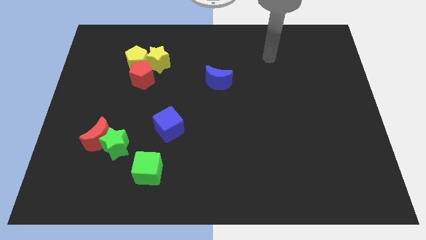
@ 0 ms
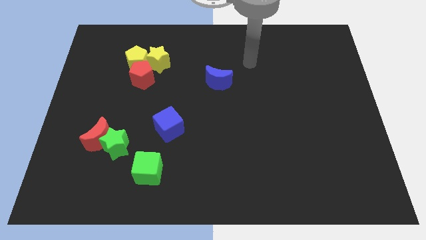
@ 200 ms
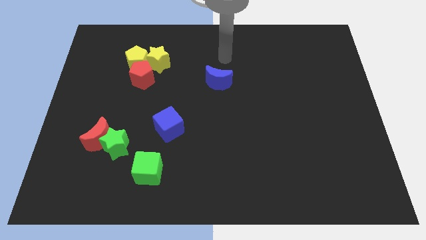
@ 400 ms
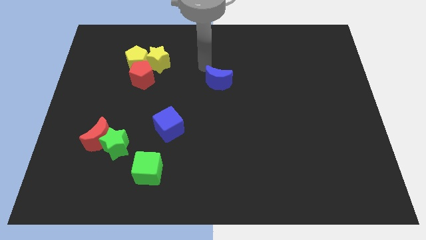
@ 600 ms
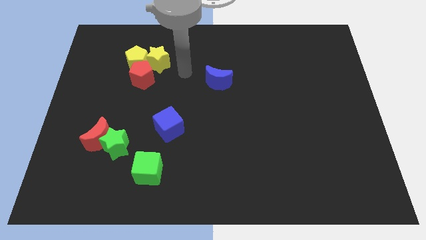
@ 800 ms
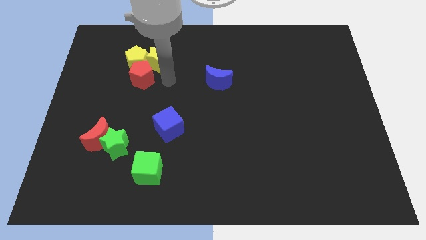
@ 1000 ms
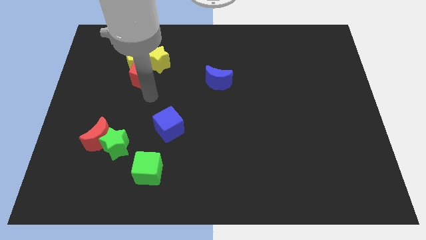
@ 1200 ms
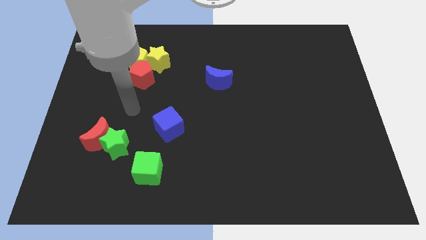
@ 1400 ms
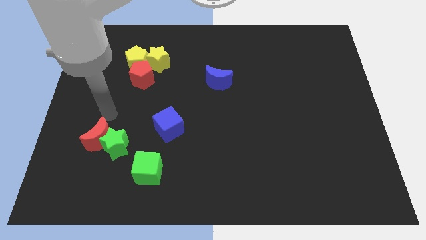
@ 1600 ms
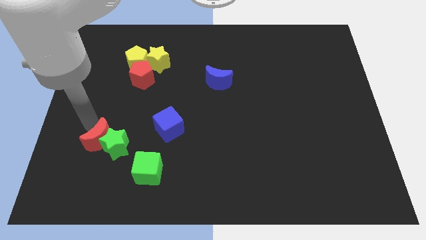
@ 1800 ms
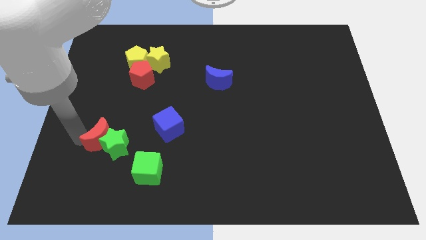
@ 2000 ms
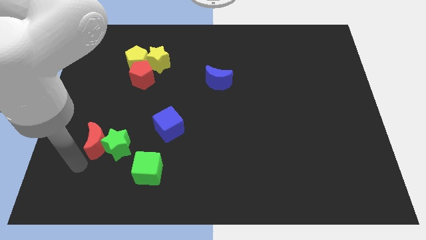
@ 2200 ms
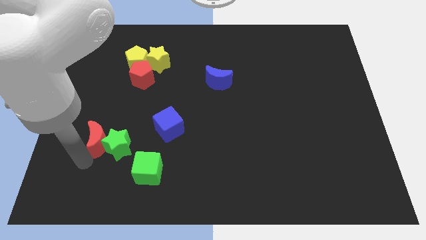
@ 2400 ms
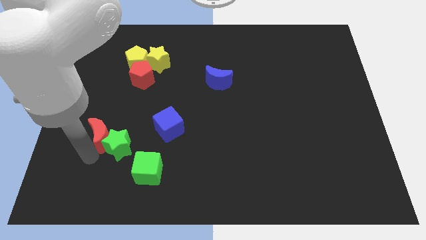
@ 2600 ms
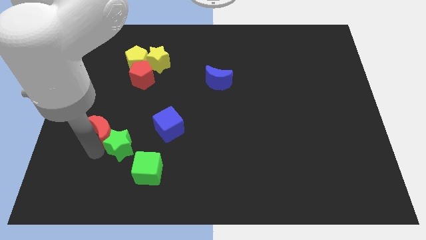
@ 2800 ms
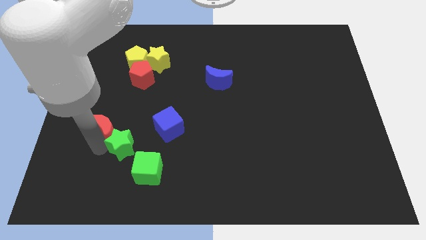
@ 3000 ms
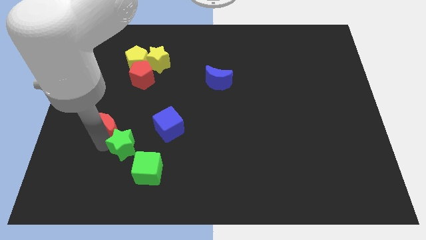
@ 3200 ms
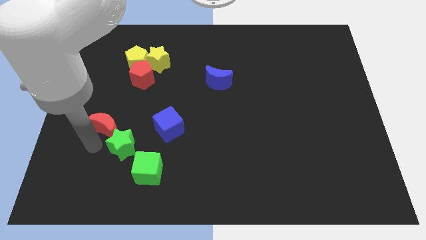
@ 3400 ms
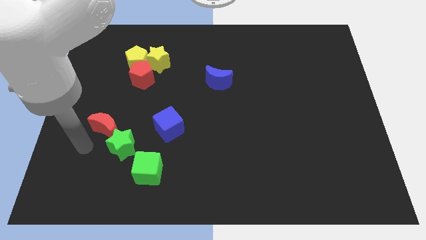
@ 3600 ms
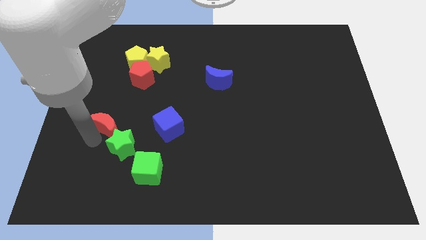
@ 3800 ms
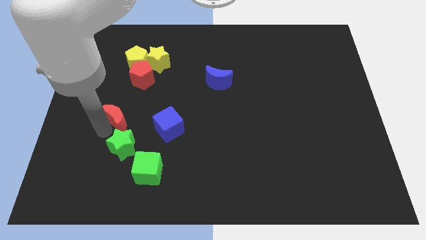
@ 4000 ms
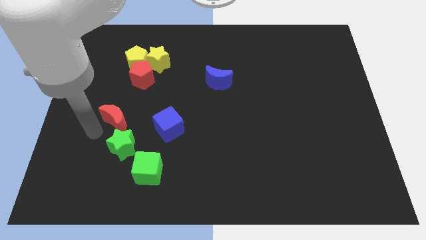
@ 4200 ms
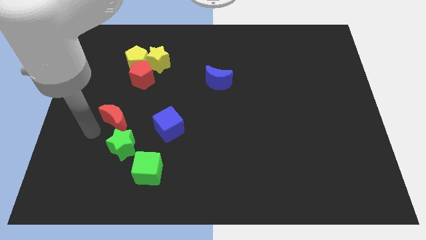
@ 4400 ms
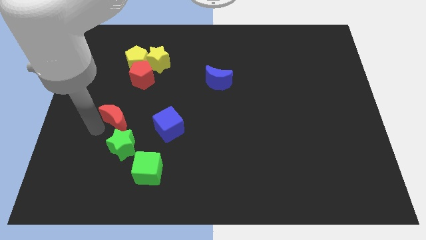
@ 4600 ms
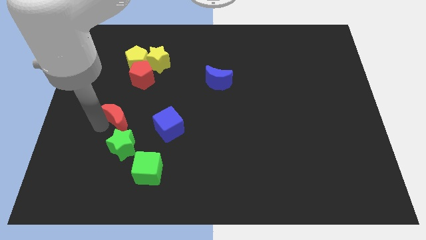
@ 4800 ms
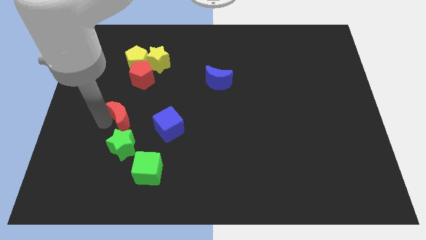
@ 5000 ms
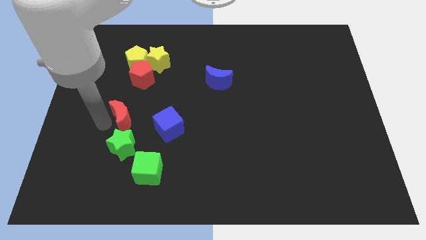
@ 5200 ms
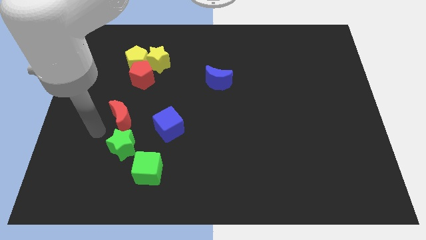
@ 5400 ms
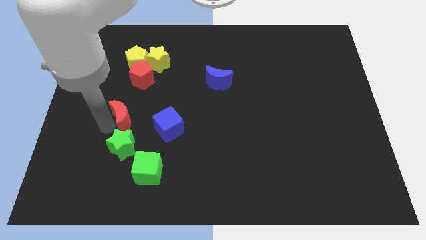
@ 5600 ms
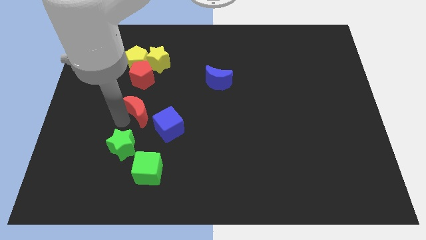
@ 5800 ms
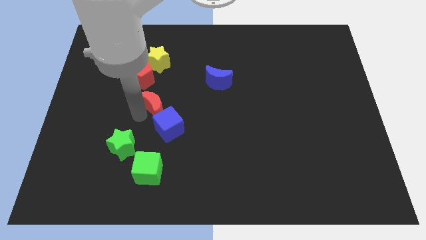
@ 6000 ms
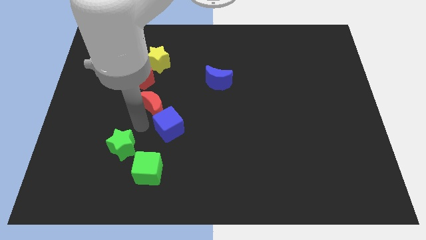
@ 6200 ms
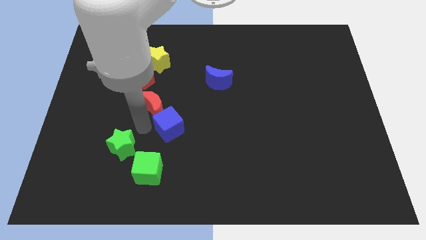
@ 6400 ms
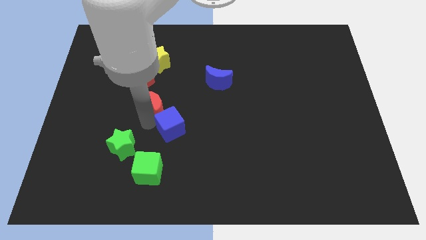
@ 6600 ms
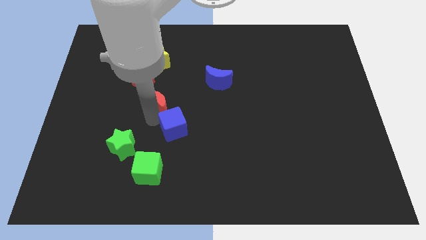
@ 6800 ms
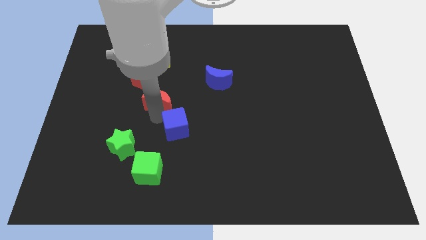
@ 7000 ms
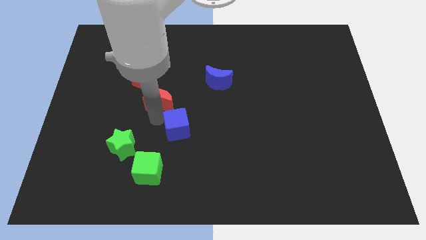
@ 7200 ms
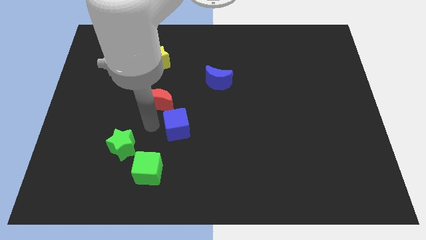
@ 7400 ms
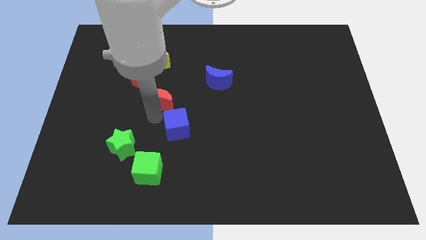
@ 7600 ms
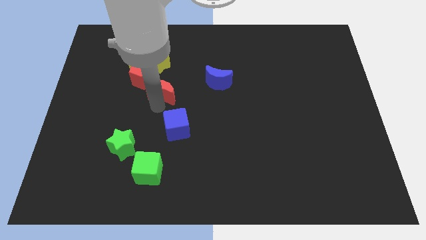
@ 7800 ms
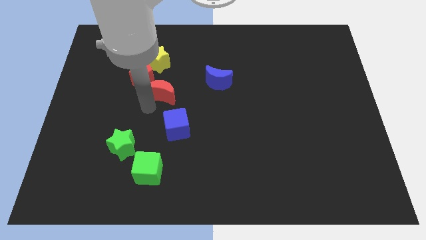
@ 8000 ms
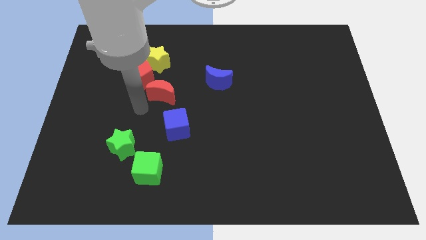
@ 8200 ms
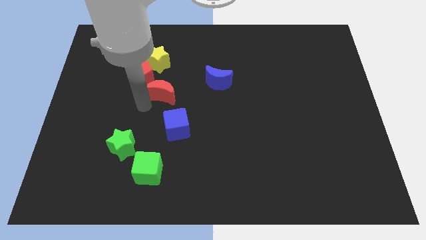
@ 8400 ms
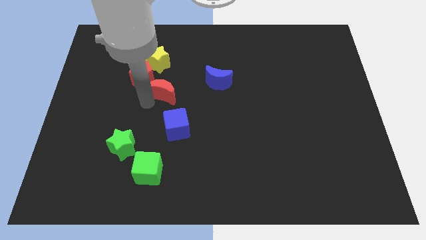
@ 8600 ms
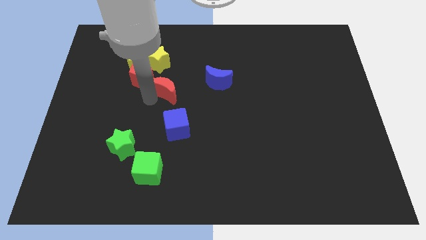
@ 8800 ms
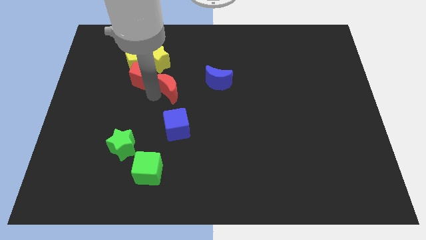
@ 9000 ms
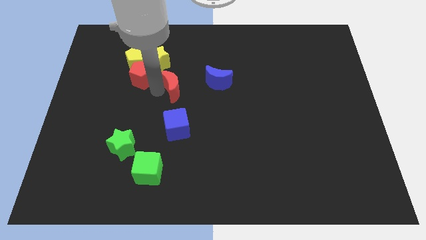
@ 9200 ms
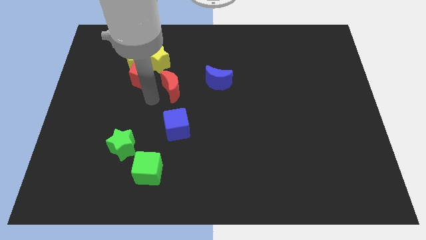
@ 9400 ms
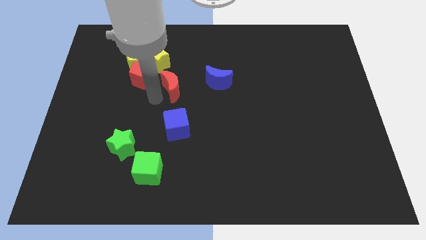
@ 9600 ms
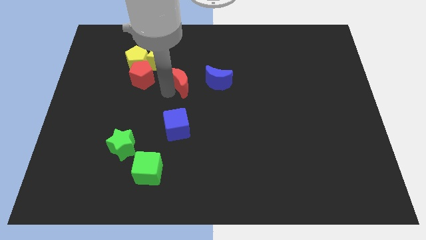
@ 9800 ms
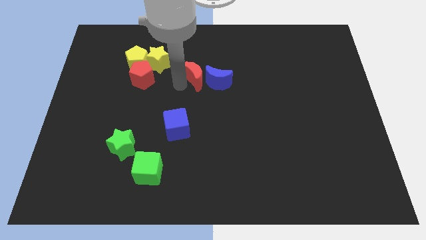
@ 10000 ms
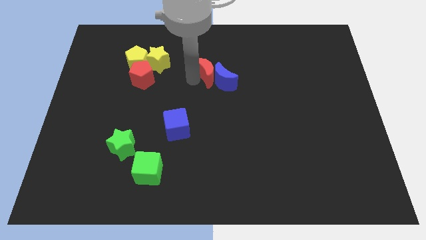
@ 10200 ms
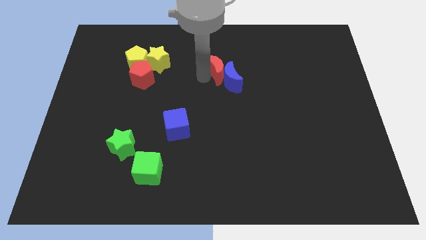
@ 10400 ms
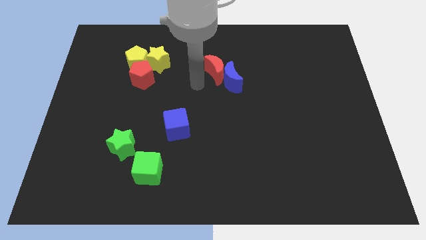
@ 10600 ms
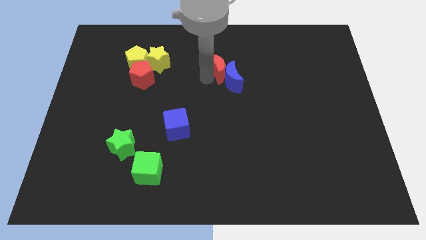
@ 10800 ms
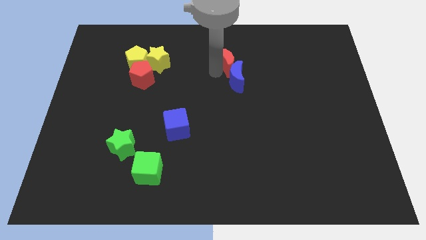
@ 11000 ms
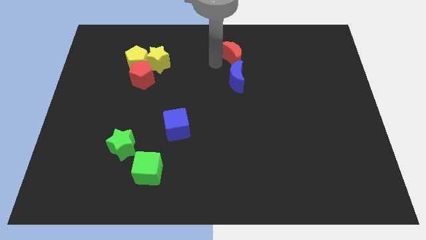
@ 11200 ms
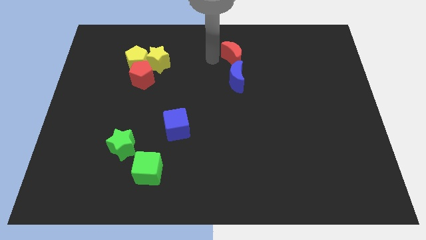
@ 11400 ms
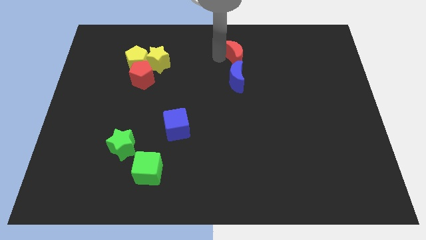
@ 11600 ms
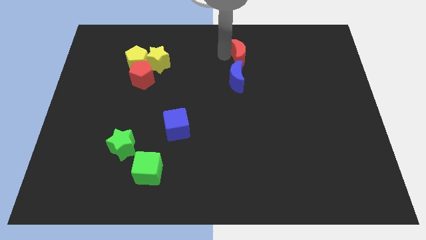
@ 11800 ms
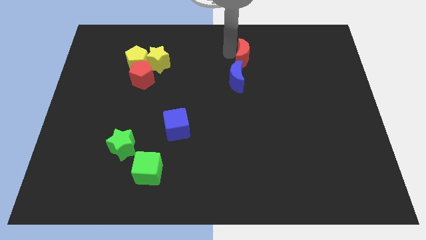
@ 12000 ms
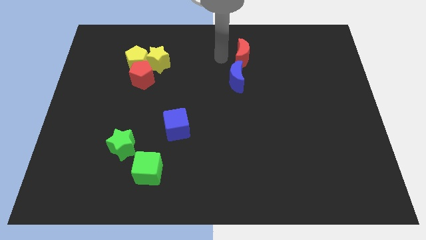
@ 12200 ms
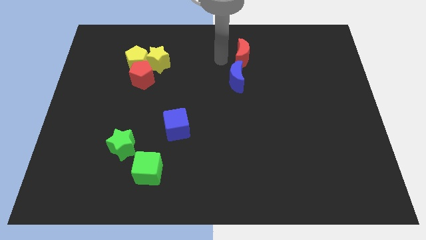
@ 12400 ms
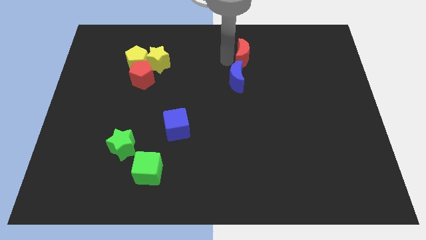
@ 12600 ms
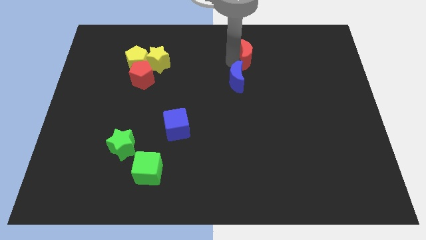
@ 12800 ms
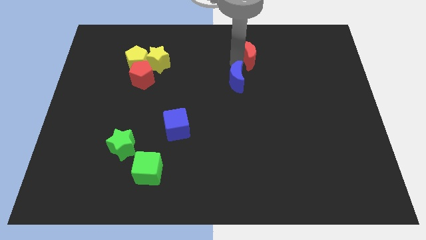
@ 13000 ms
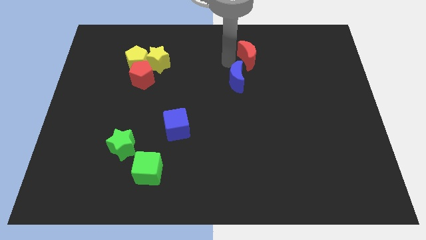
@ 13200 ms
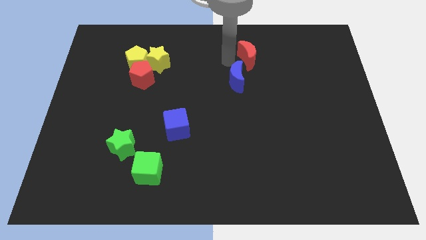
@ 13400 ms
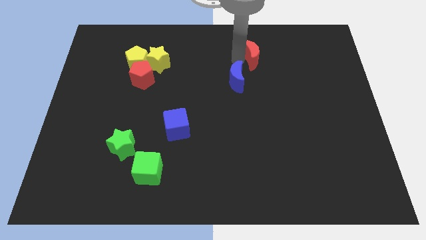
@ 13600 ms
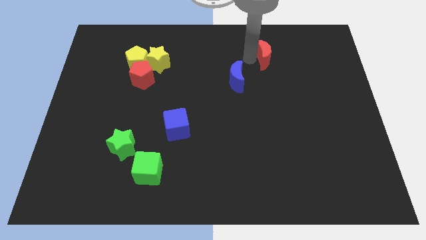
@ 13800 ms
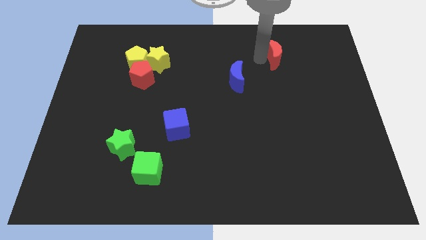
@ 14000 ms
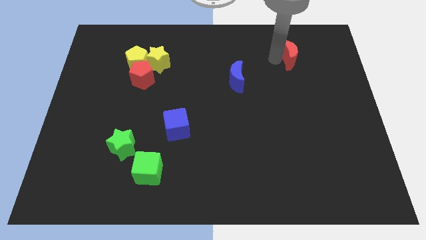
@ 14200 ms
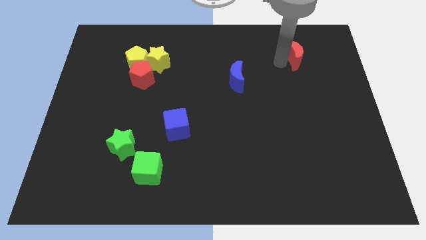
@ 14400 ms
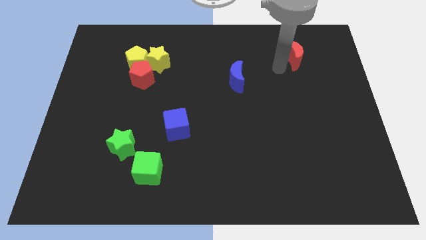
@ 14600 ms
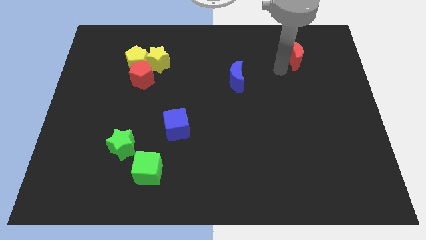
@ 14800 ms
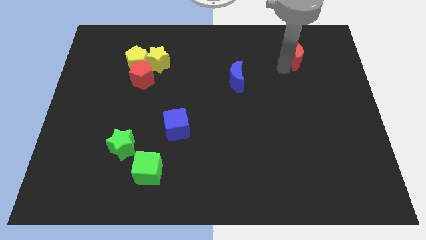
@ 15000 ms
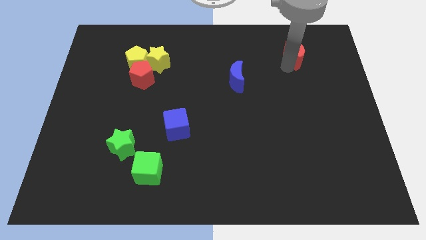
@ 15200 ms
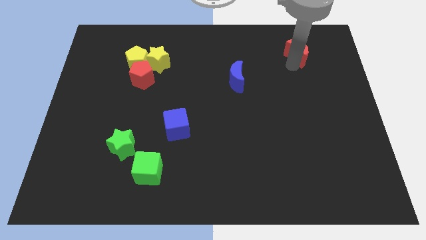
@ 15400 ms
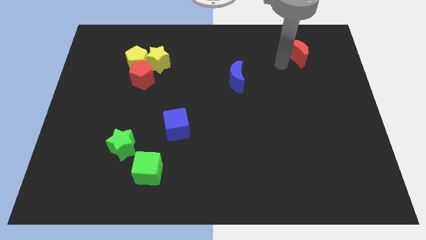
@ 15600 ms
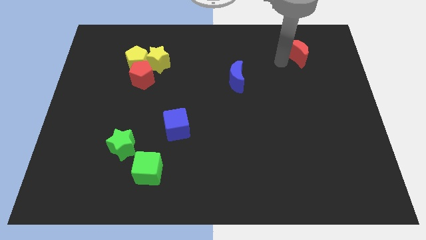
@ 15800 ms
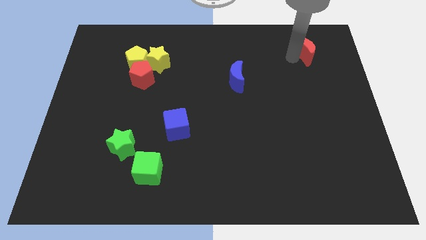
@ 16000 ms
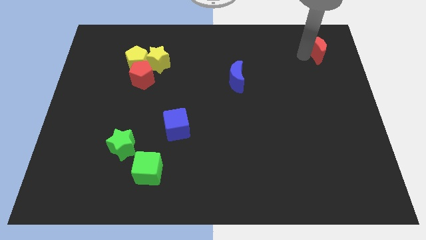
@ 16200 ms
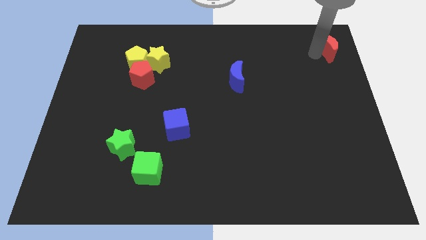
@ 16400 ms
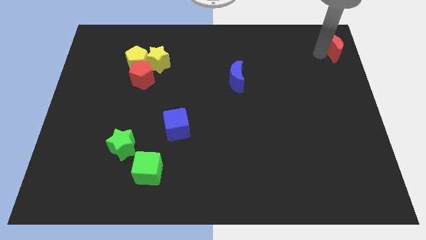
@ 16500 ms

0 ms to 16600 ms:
push the red moon to the top right
